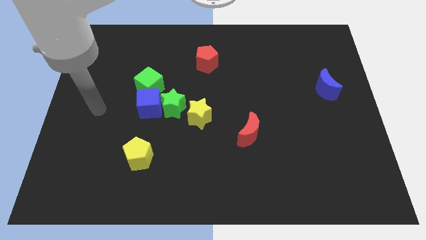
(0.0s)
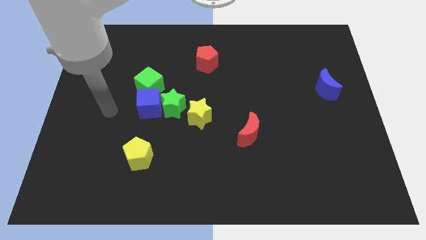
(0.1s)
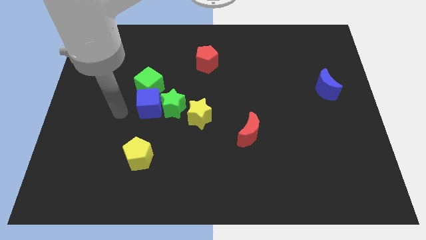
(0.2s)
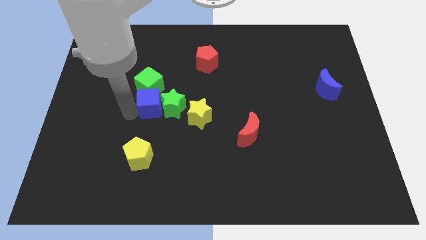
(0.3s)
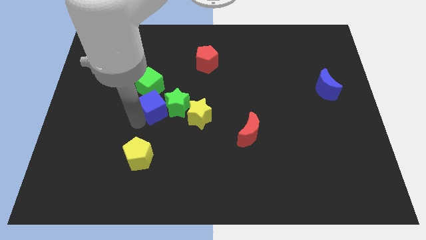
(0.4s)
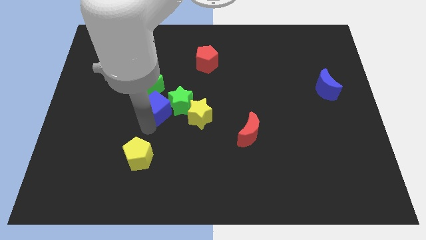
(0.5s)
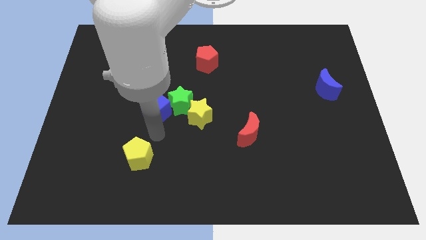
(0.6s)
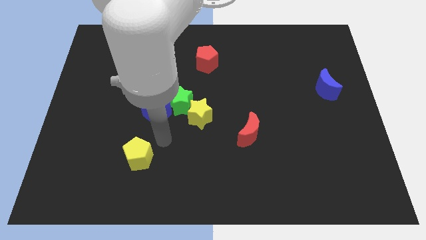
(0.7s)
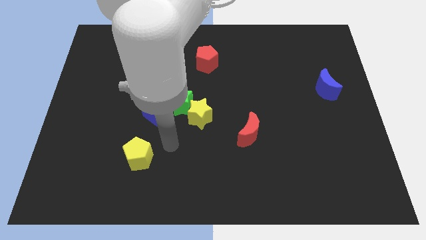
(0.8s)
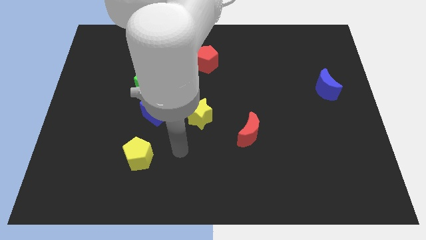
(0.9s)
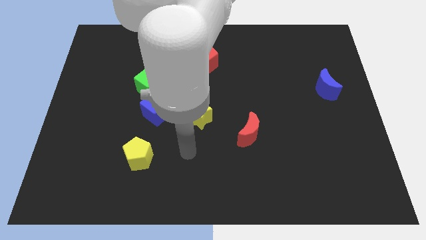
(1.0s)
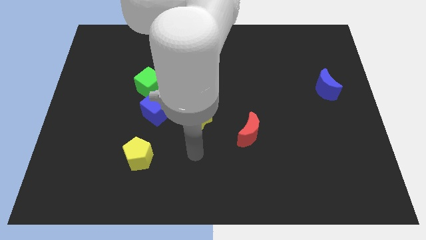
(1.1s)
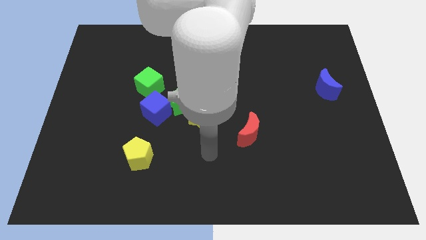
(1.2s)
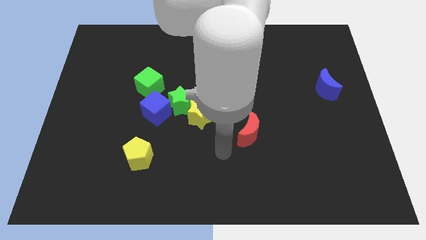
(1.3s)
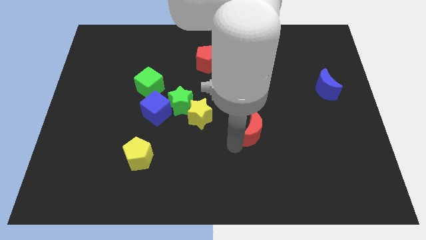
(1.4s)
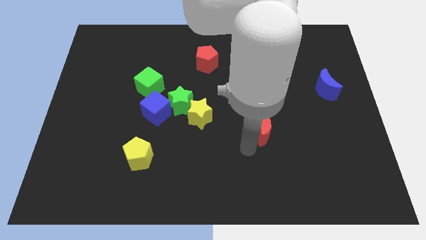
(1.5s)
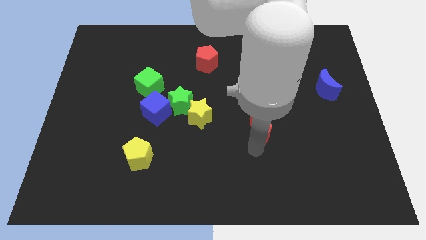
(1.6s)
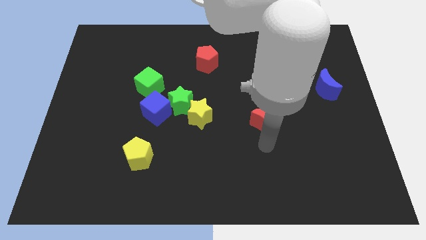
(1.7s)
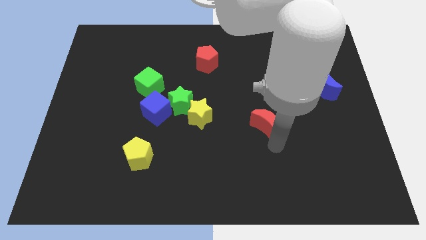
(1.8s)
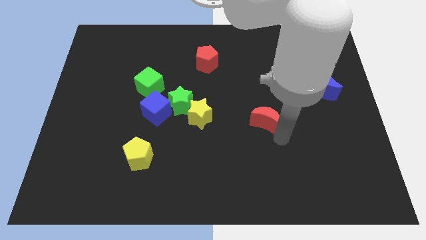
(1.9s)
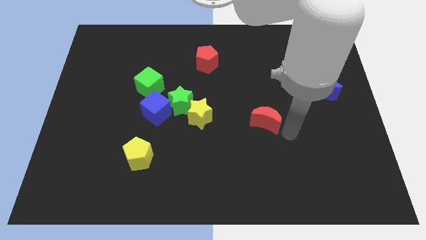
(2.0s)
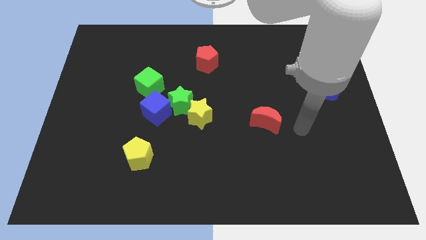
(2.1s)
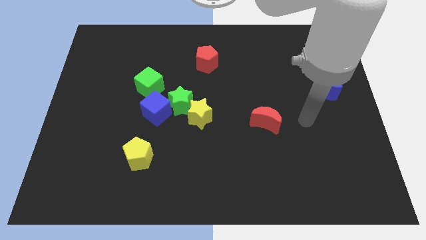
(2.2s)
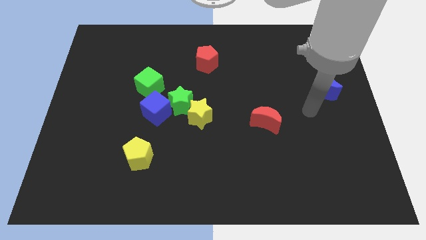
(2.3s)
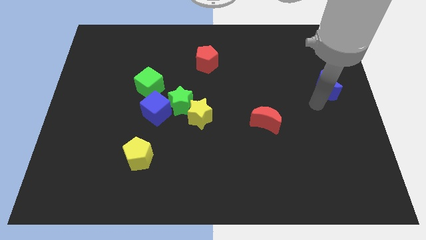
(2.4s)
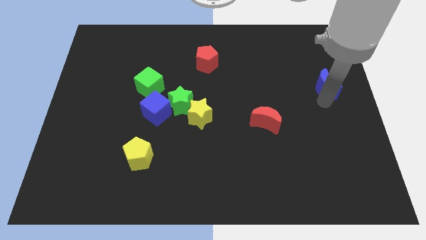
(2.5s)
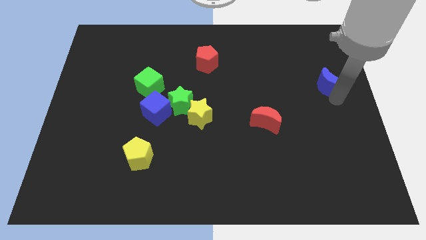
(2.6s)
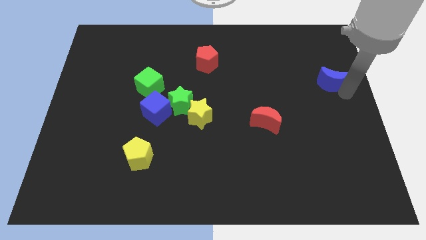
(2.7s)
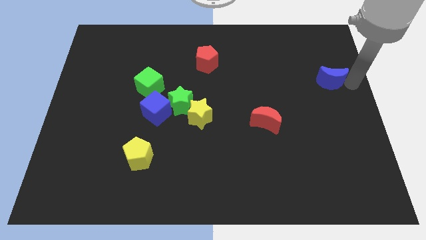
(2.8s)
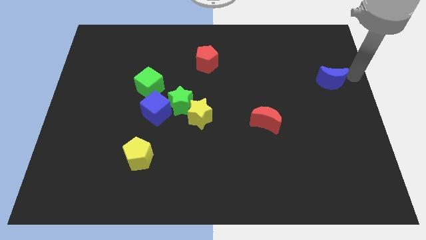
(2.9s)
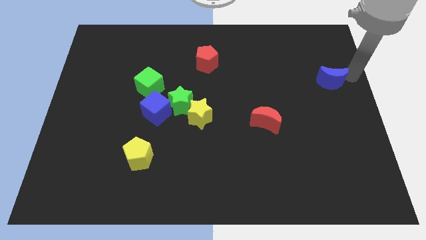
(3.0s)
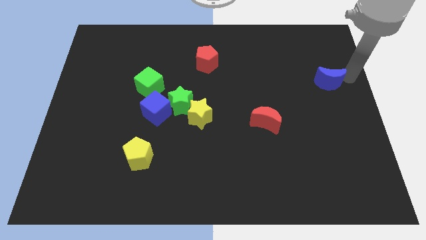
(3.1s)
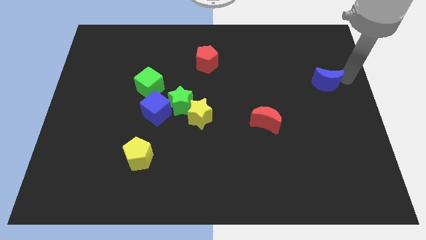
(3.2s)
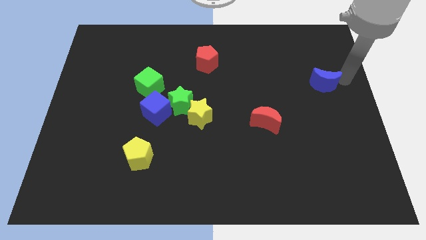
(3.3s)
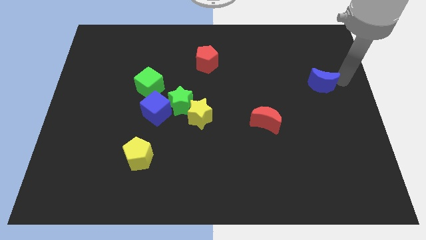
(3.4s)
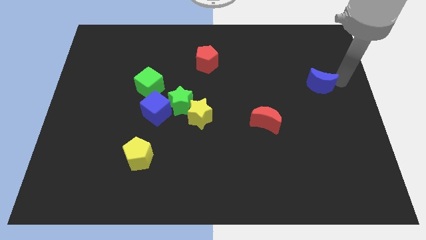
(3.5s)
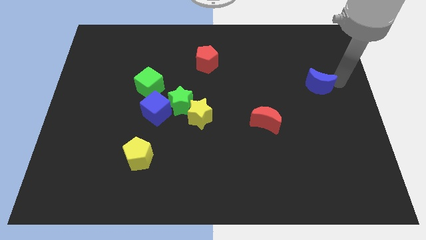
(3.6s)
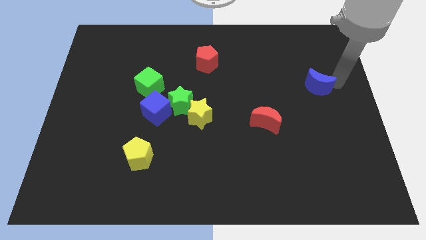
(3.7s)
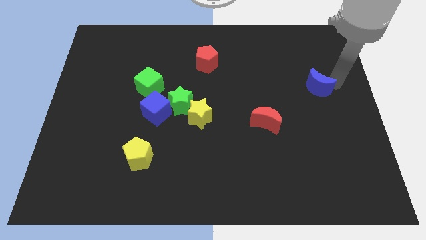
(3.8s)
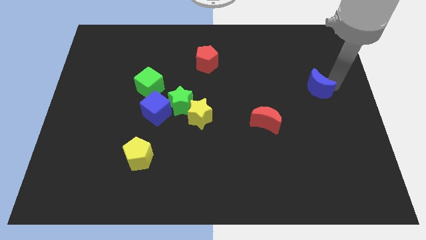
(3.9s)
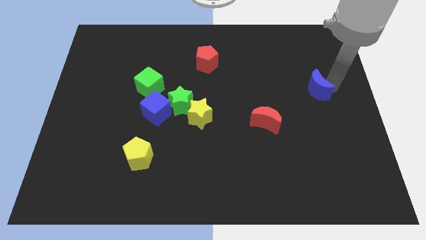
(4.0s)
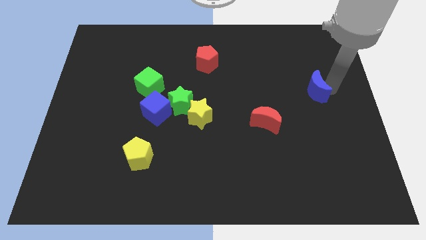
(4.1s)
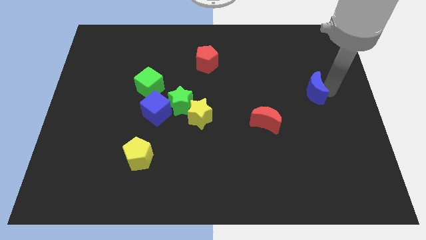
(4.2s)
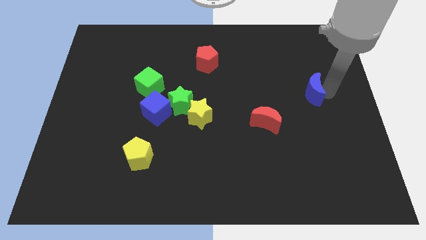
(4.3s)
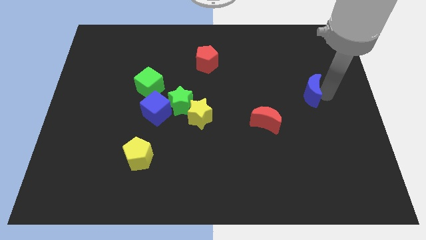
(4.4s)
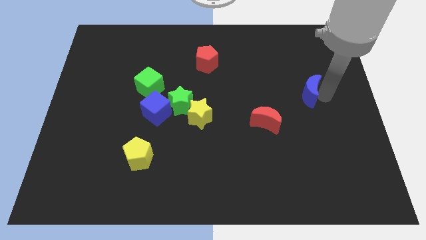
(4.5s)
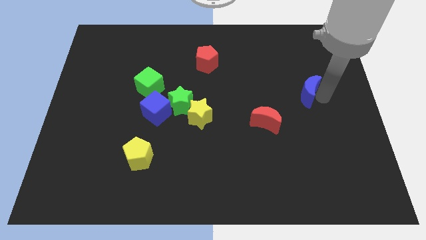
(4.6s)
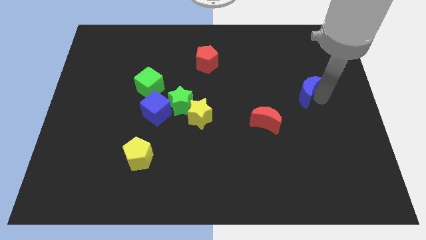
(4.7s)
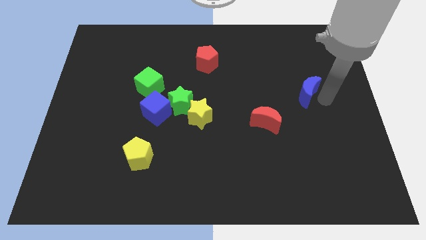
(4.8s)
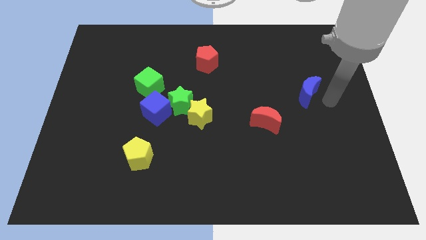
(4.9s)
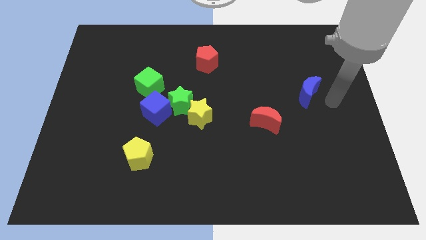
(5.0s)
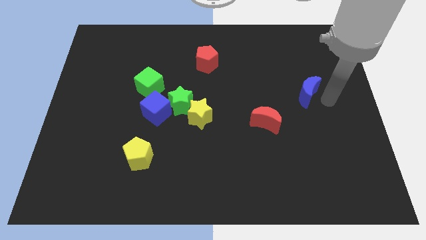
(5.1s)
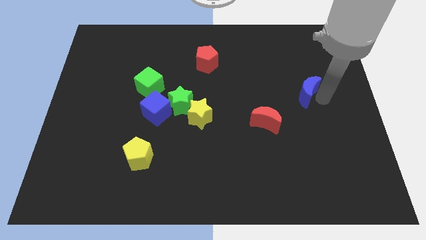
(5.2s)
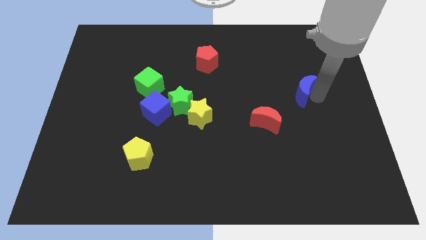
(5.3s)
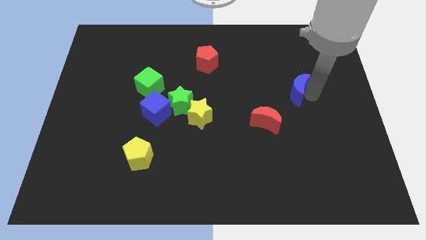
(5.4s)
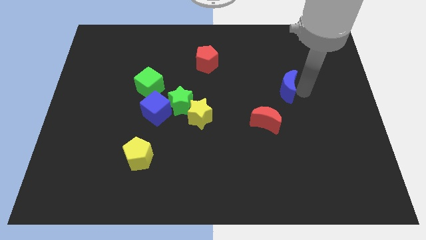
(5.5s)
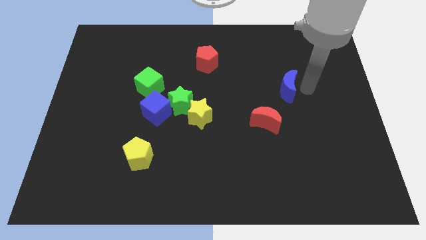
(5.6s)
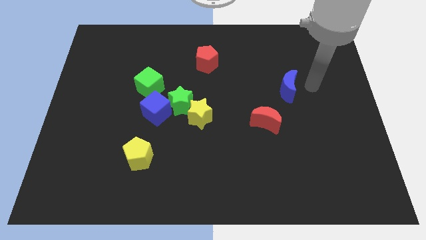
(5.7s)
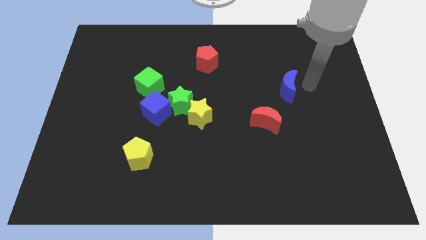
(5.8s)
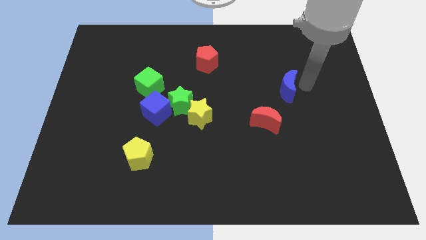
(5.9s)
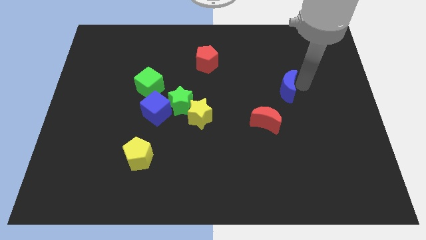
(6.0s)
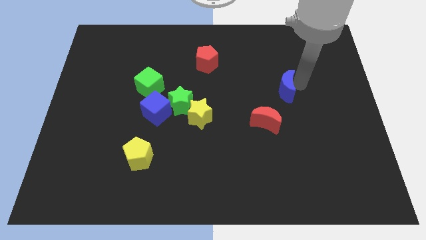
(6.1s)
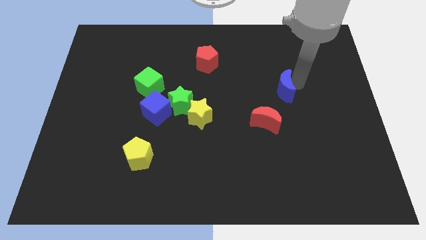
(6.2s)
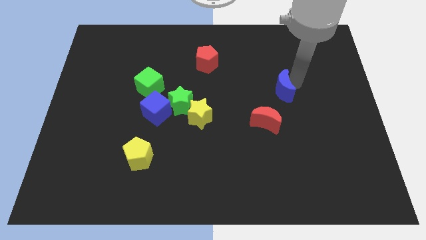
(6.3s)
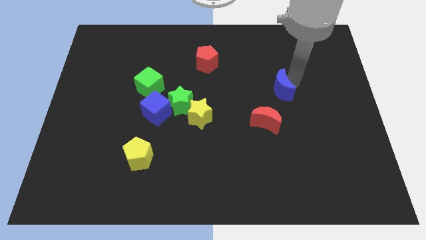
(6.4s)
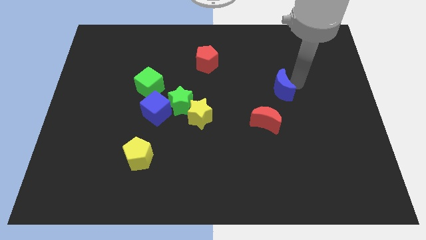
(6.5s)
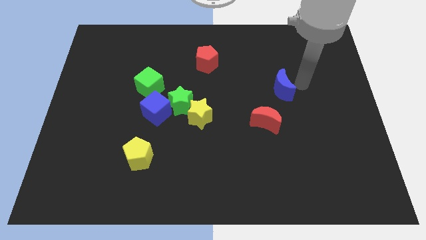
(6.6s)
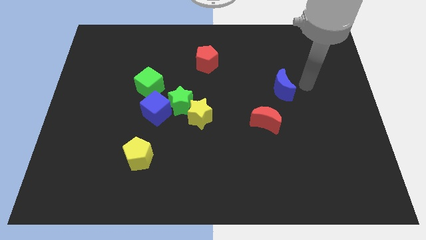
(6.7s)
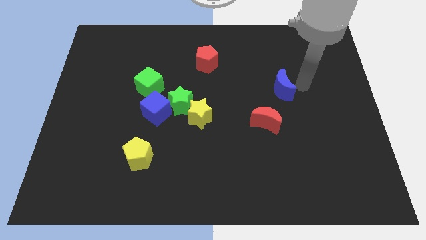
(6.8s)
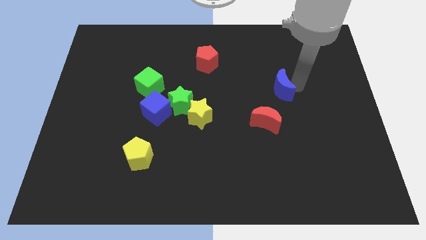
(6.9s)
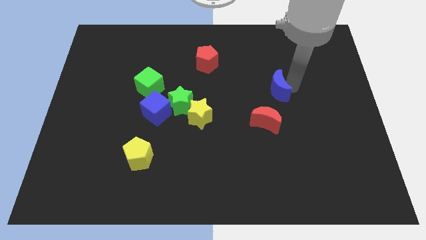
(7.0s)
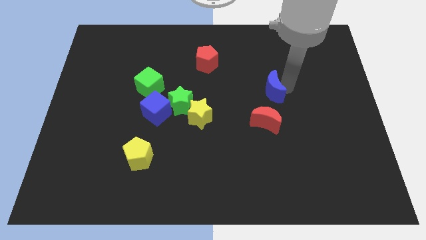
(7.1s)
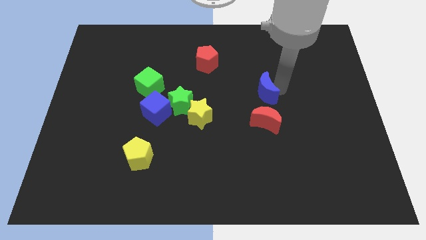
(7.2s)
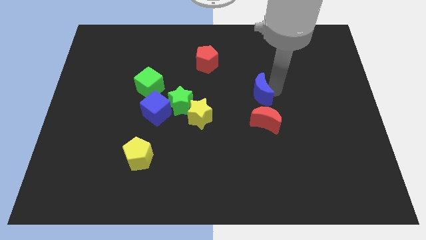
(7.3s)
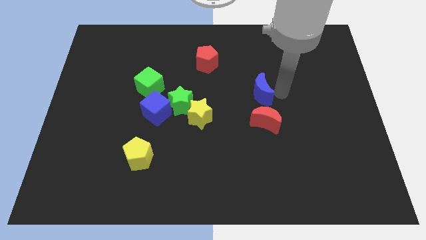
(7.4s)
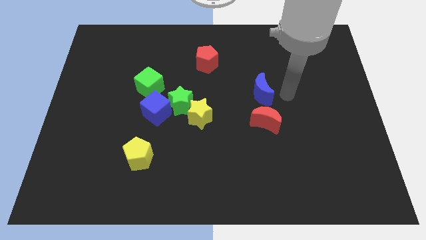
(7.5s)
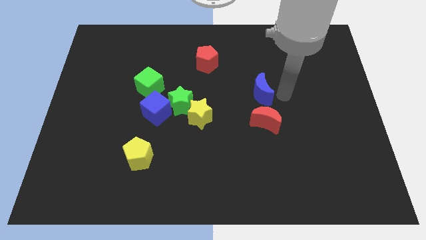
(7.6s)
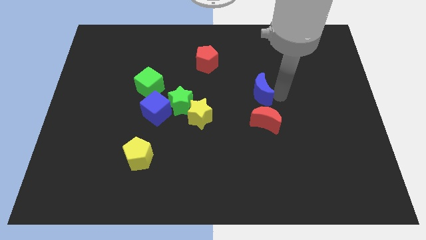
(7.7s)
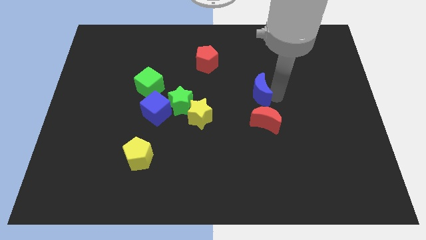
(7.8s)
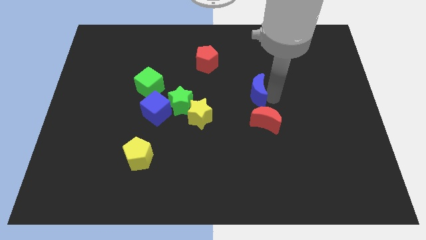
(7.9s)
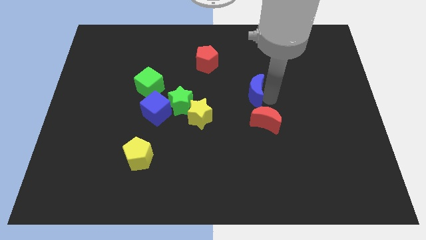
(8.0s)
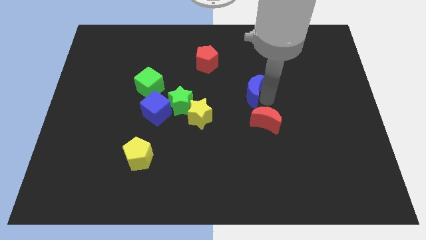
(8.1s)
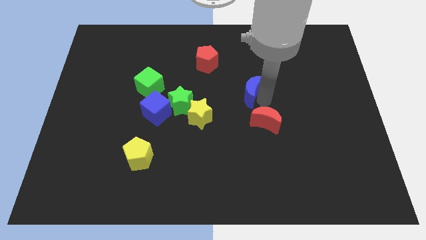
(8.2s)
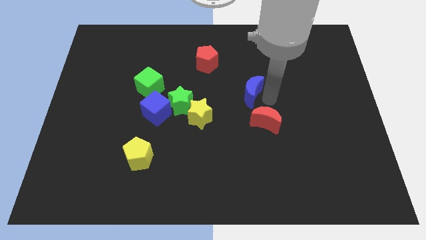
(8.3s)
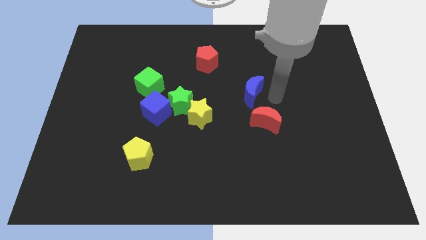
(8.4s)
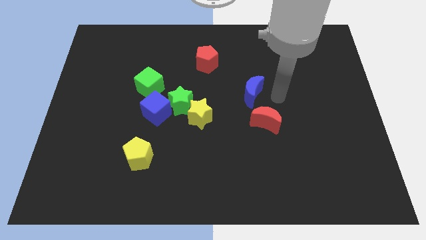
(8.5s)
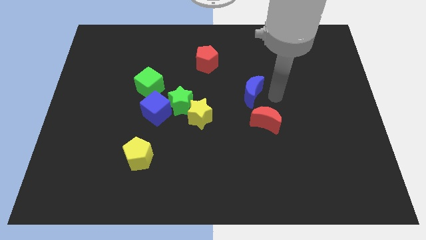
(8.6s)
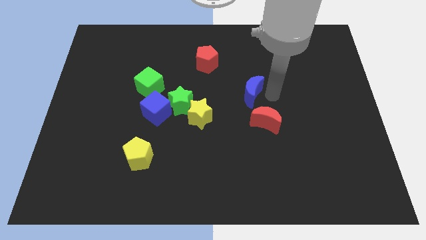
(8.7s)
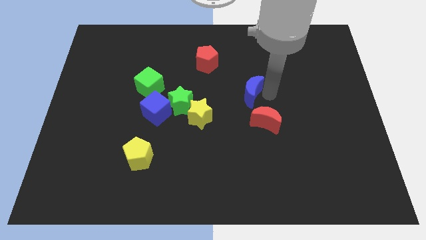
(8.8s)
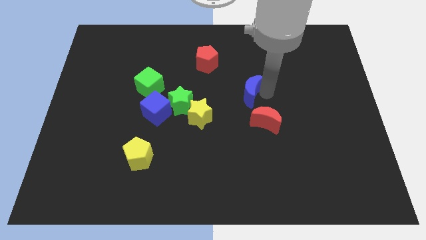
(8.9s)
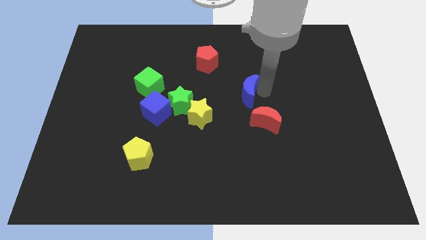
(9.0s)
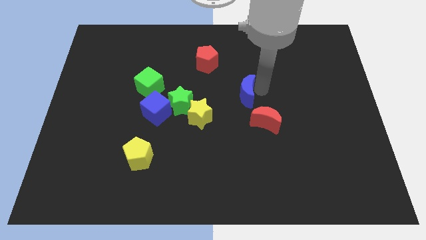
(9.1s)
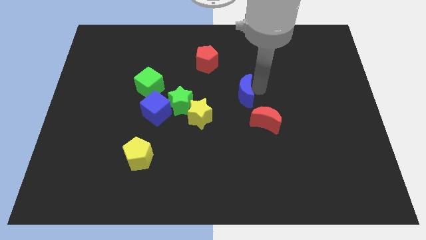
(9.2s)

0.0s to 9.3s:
push the blue moon left
